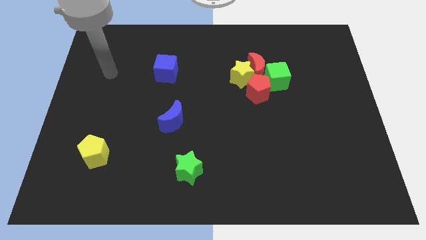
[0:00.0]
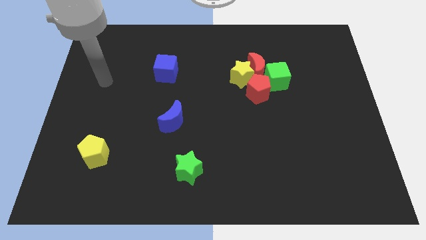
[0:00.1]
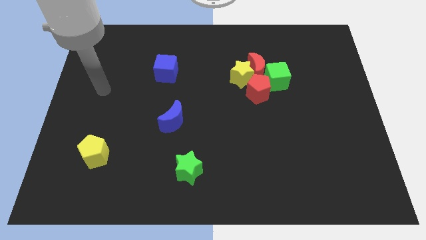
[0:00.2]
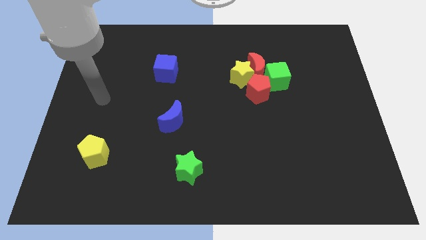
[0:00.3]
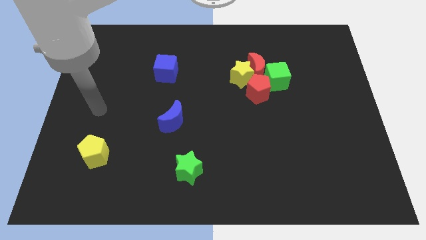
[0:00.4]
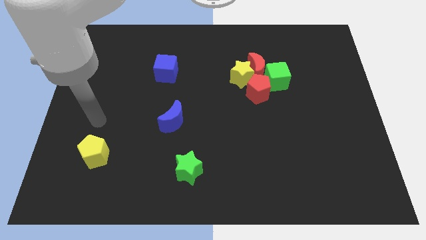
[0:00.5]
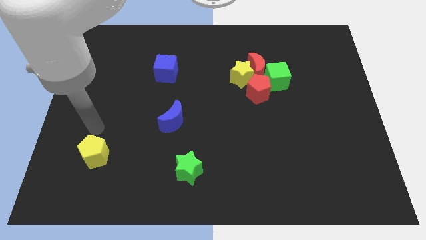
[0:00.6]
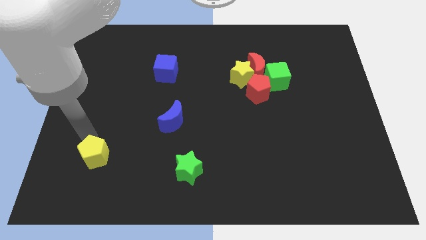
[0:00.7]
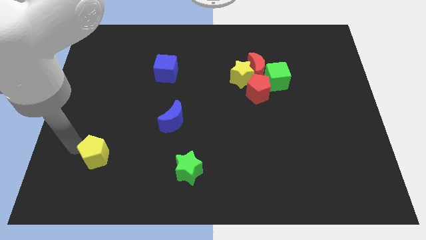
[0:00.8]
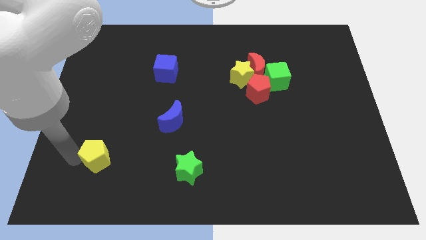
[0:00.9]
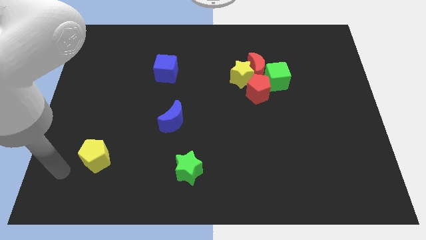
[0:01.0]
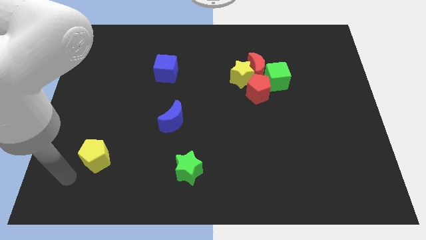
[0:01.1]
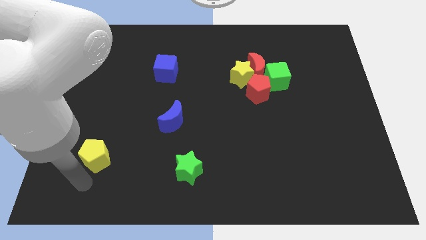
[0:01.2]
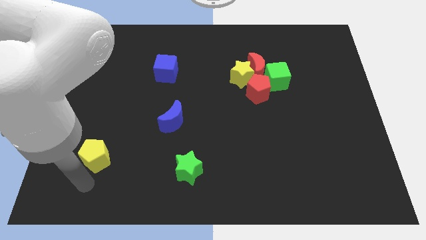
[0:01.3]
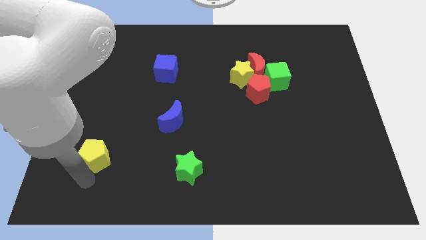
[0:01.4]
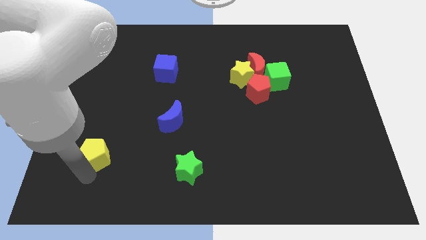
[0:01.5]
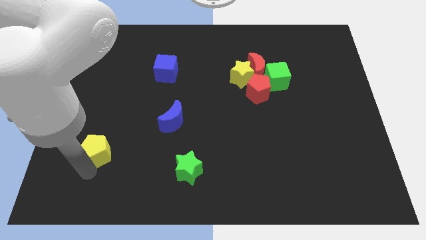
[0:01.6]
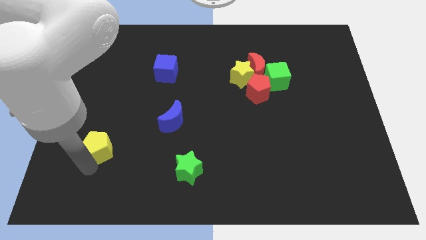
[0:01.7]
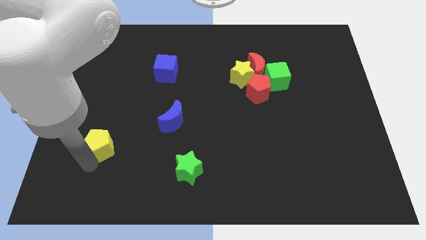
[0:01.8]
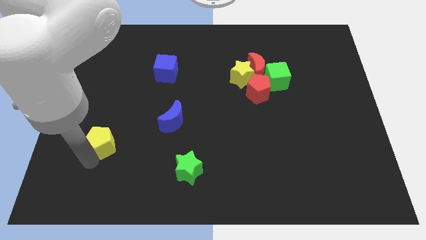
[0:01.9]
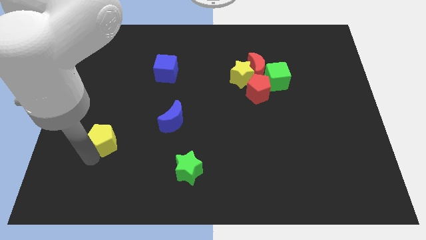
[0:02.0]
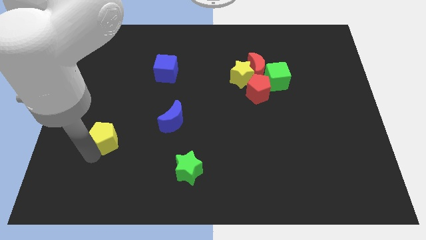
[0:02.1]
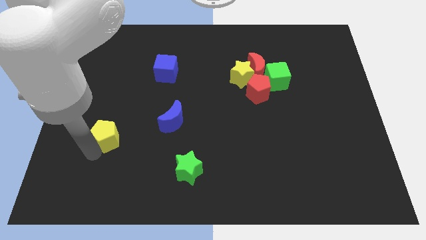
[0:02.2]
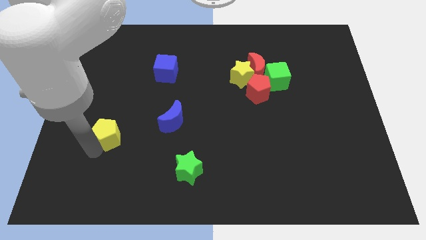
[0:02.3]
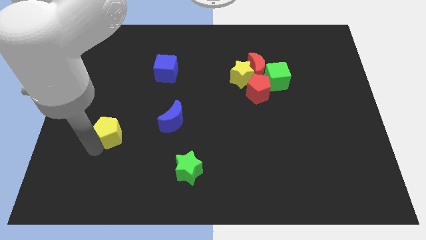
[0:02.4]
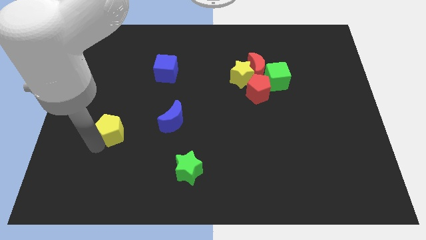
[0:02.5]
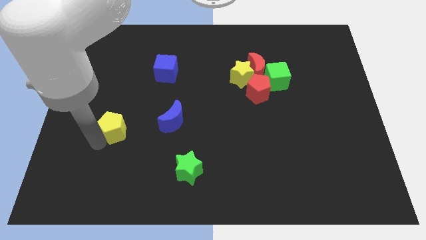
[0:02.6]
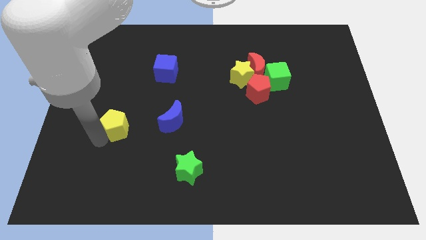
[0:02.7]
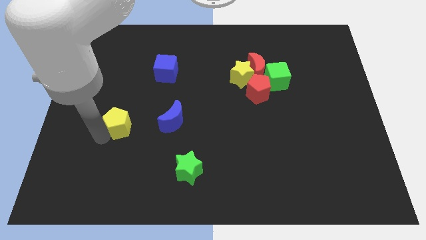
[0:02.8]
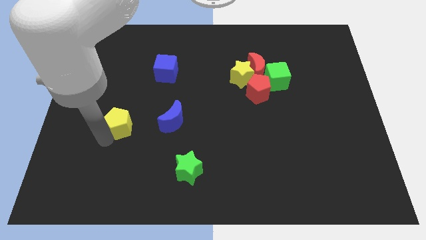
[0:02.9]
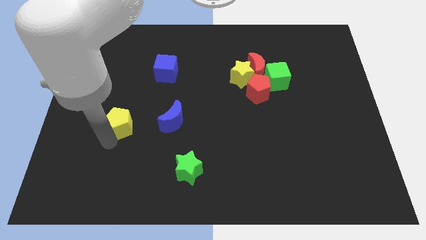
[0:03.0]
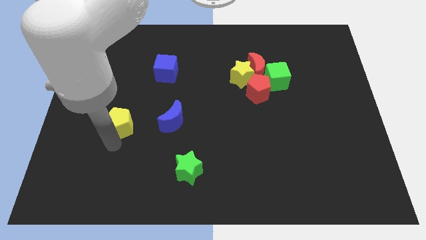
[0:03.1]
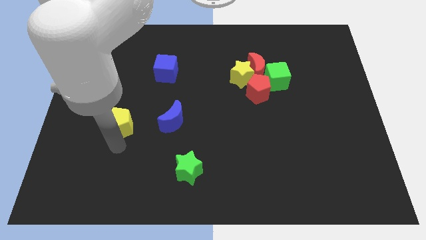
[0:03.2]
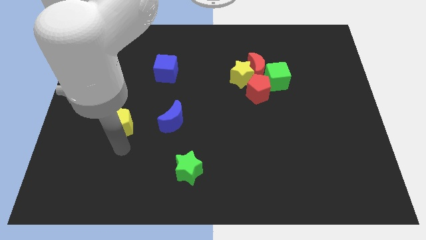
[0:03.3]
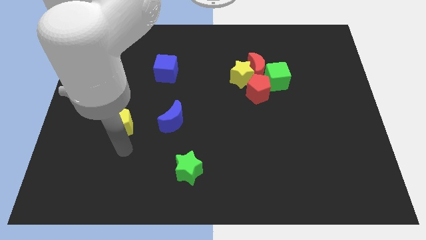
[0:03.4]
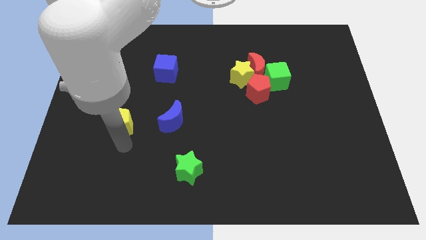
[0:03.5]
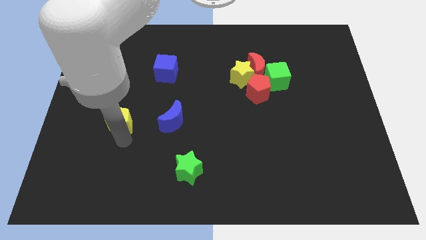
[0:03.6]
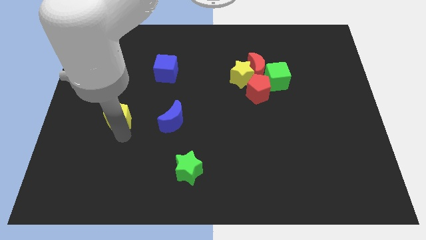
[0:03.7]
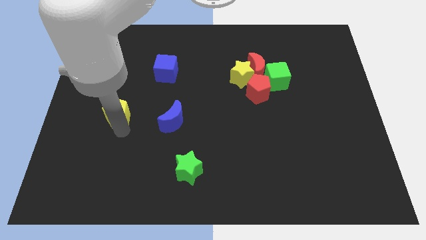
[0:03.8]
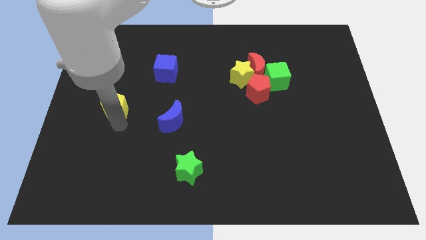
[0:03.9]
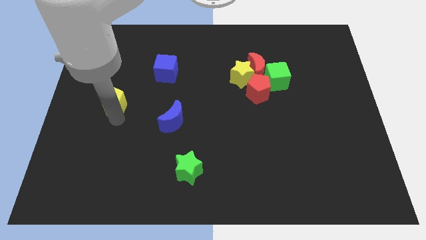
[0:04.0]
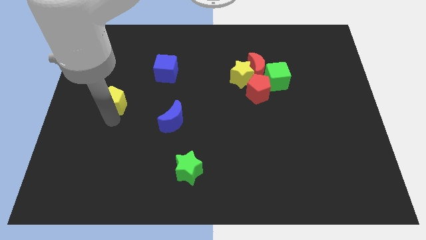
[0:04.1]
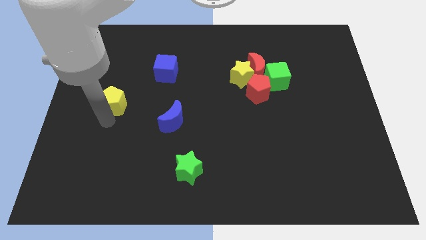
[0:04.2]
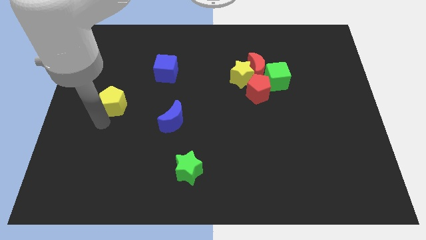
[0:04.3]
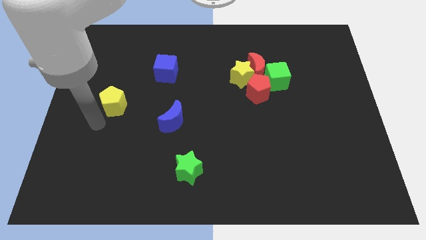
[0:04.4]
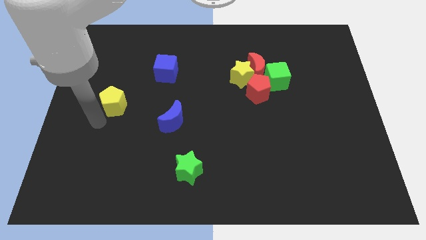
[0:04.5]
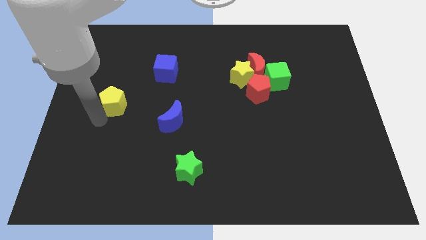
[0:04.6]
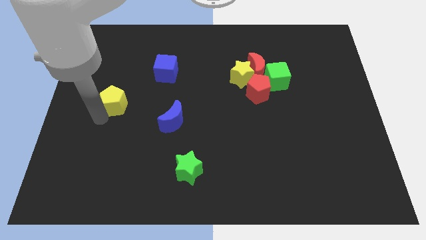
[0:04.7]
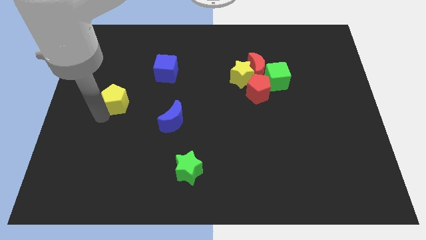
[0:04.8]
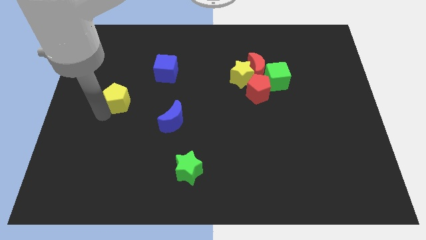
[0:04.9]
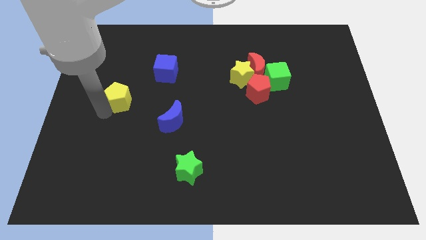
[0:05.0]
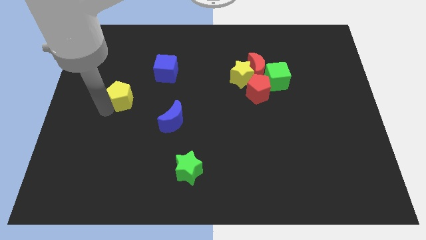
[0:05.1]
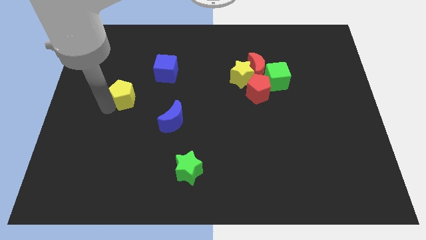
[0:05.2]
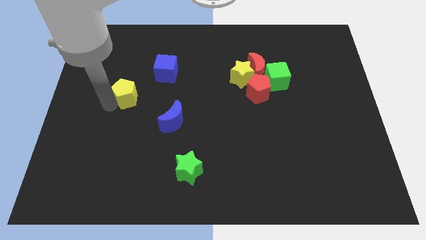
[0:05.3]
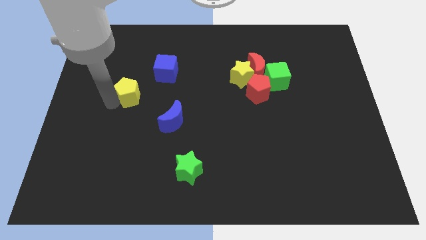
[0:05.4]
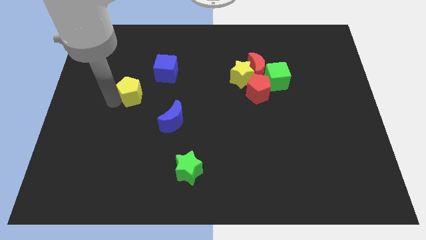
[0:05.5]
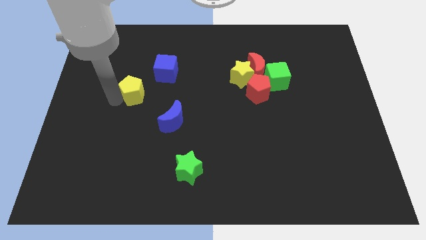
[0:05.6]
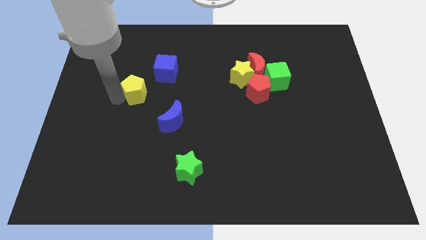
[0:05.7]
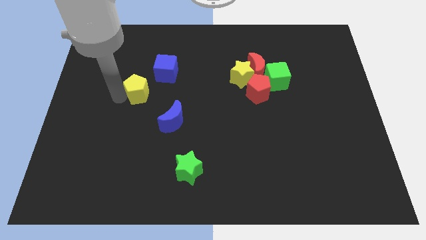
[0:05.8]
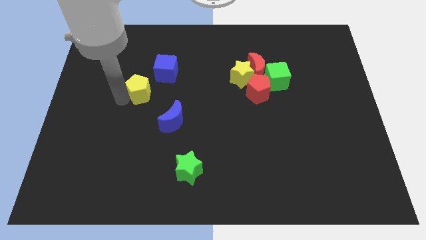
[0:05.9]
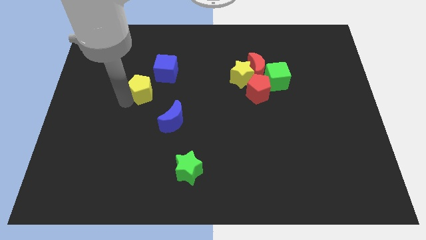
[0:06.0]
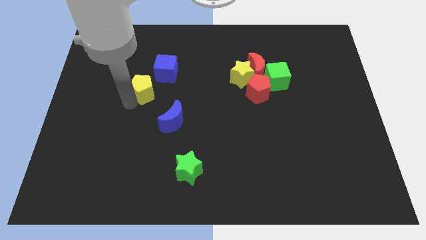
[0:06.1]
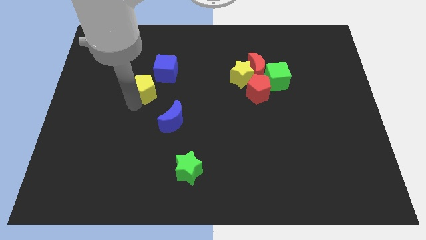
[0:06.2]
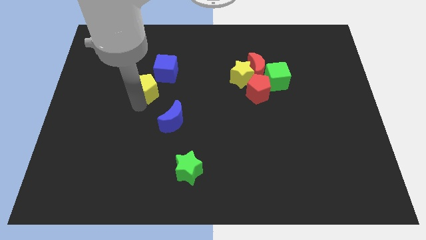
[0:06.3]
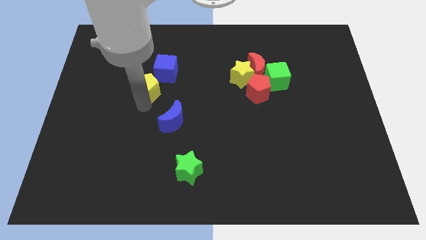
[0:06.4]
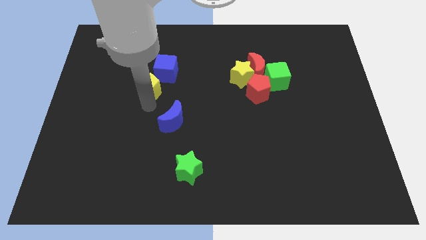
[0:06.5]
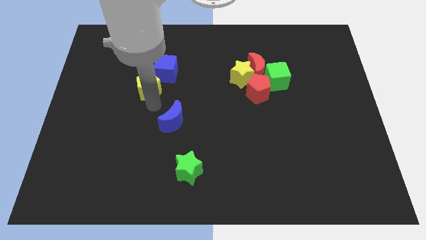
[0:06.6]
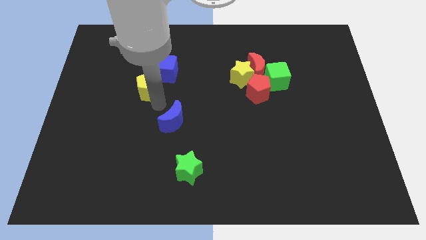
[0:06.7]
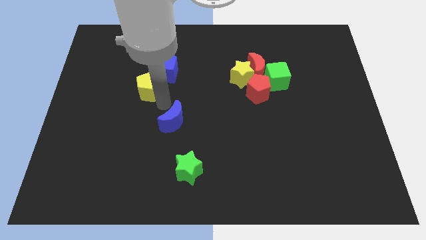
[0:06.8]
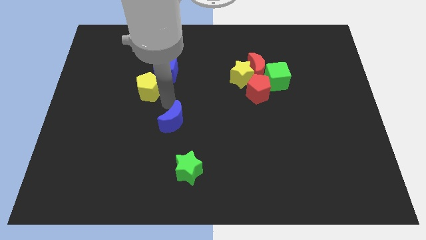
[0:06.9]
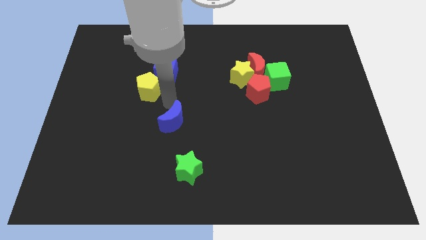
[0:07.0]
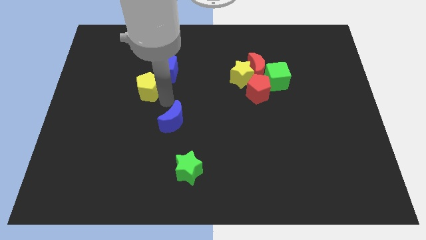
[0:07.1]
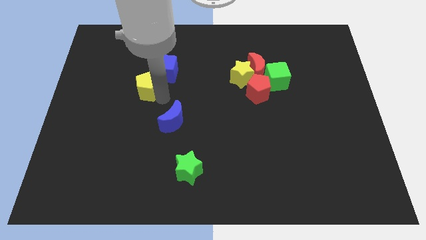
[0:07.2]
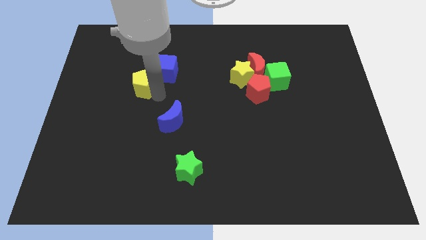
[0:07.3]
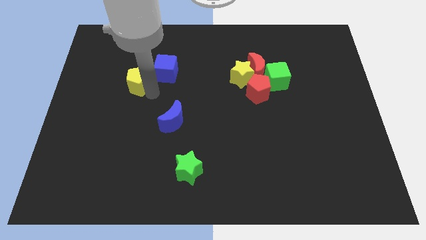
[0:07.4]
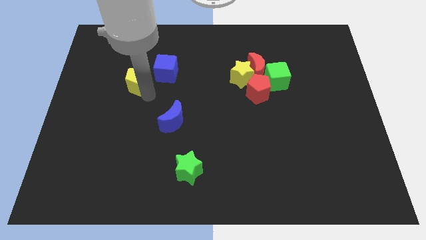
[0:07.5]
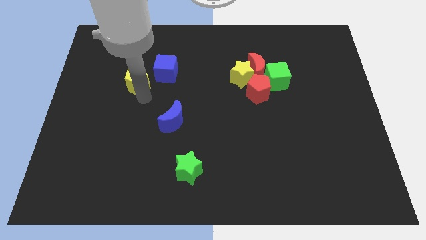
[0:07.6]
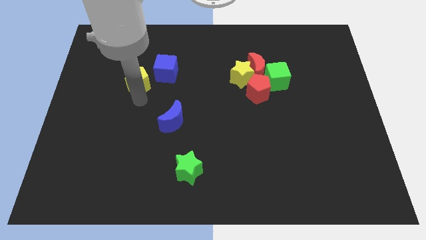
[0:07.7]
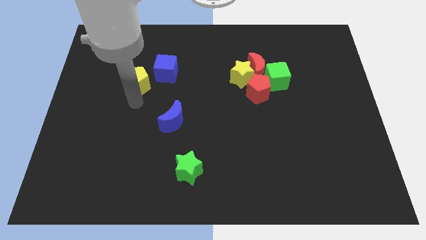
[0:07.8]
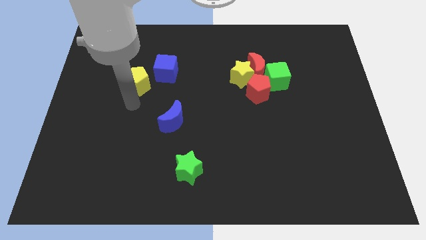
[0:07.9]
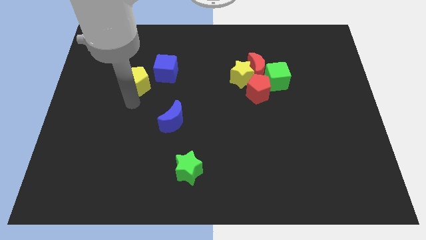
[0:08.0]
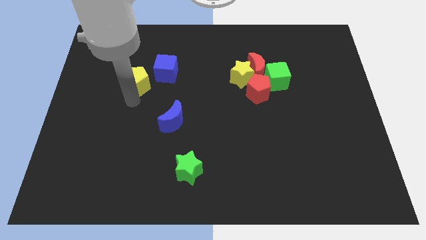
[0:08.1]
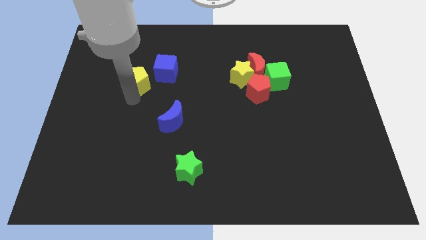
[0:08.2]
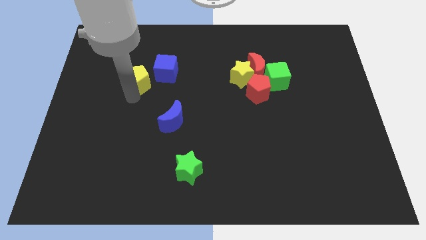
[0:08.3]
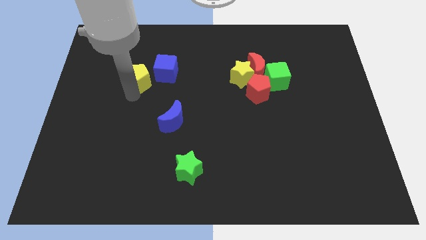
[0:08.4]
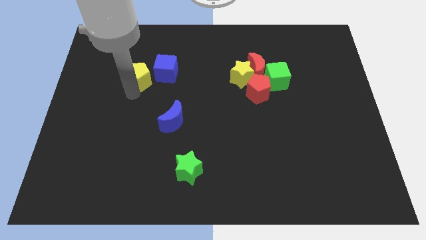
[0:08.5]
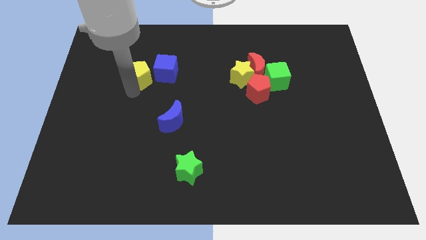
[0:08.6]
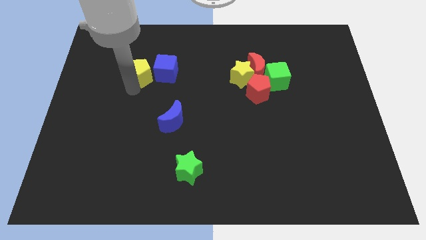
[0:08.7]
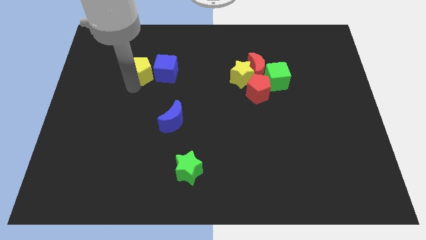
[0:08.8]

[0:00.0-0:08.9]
put the yellow pentagon to the top left of the blue cube
